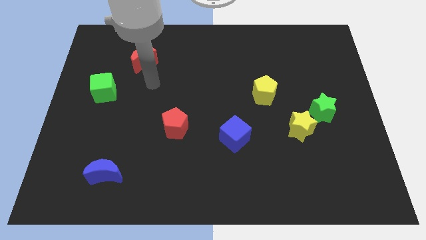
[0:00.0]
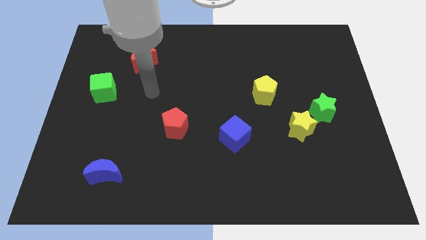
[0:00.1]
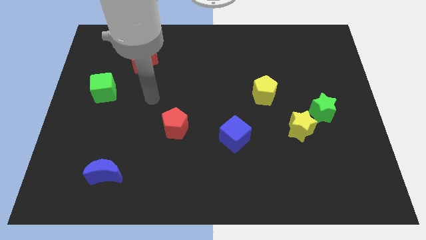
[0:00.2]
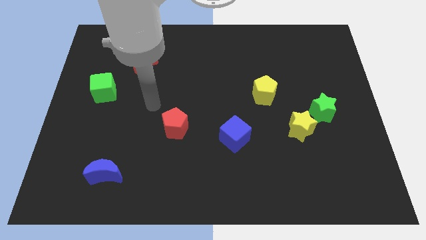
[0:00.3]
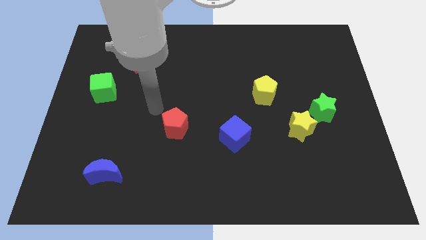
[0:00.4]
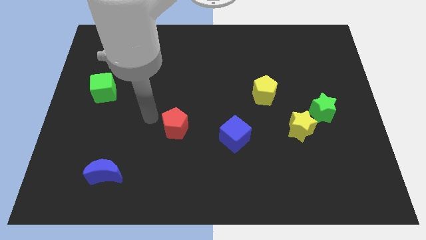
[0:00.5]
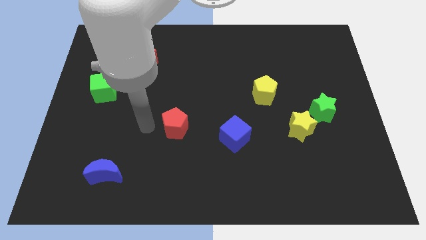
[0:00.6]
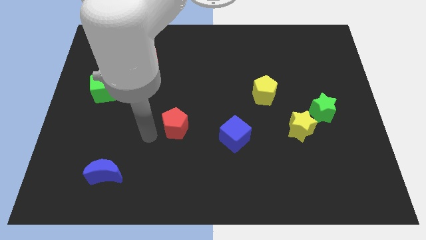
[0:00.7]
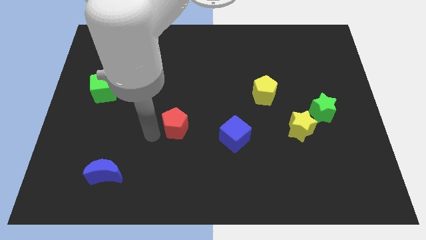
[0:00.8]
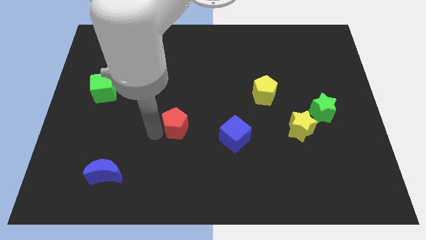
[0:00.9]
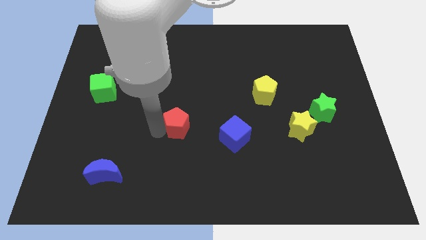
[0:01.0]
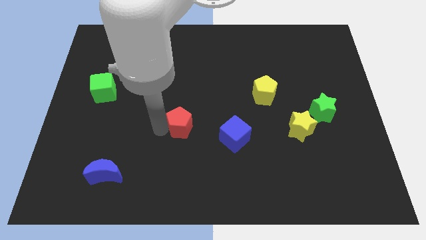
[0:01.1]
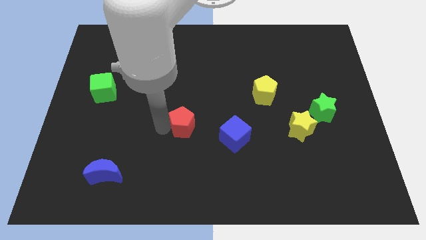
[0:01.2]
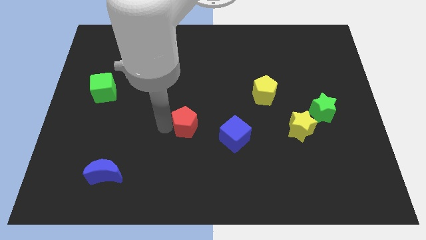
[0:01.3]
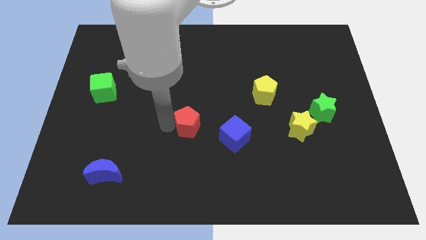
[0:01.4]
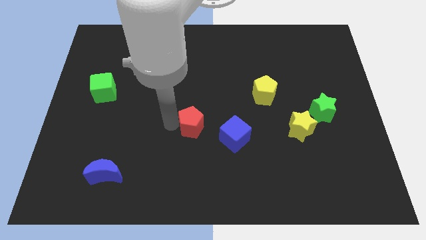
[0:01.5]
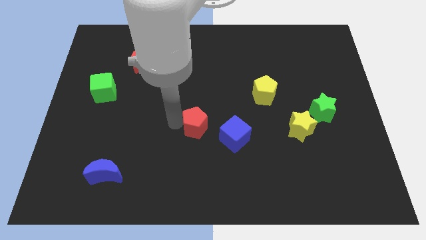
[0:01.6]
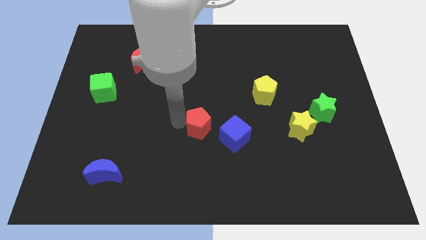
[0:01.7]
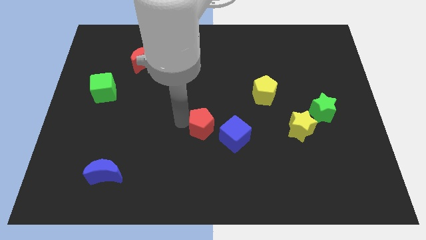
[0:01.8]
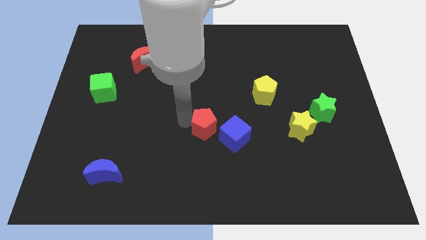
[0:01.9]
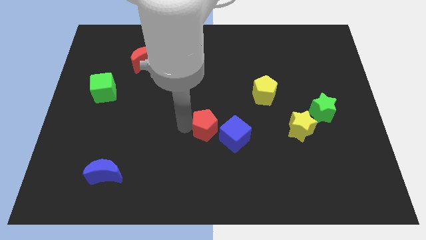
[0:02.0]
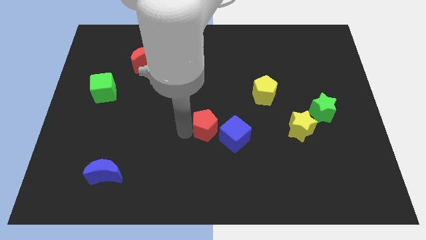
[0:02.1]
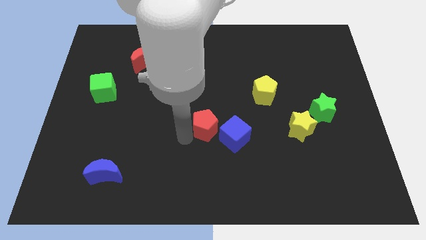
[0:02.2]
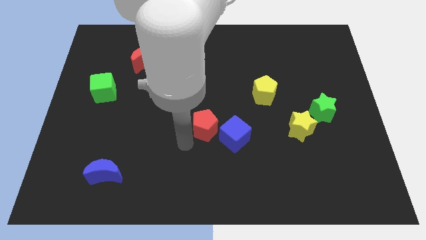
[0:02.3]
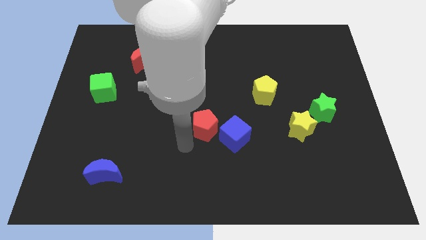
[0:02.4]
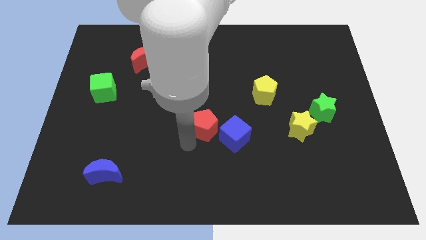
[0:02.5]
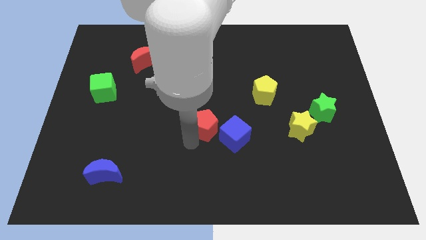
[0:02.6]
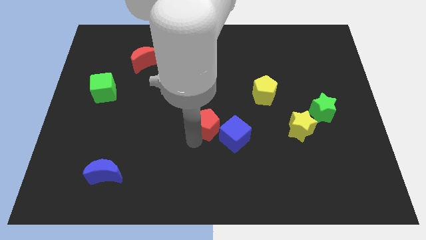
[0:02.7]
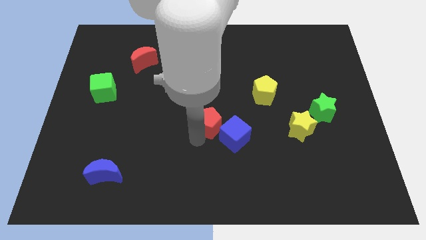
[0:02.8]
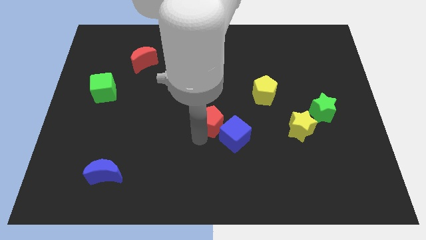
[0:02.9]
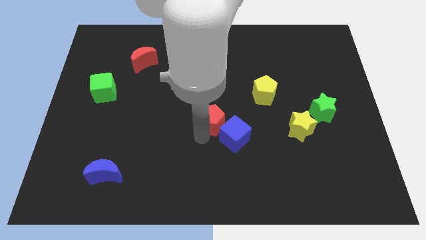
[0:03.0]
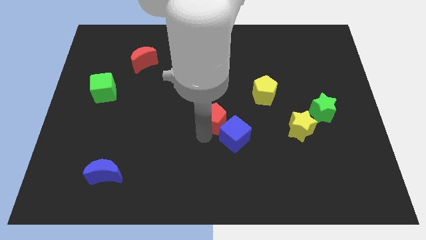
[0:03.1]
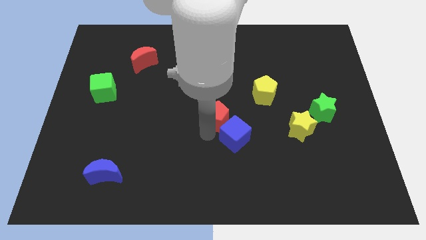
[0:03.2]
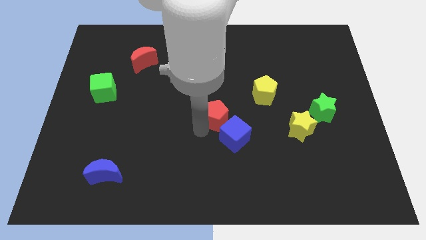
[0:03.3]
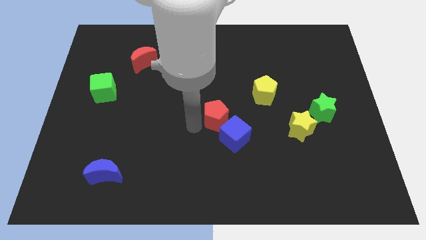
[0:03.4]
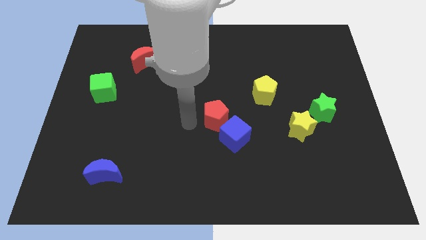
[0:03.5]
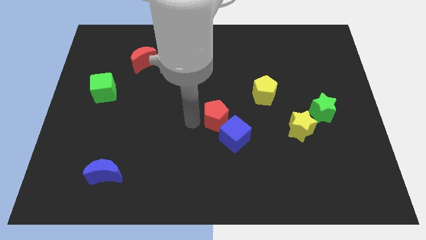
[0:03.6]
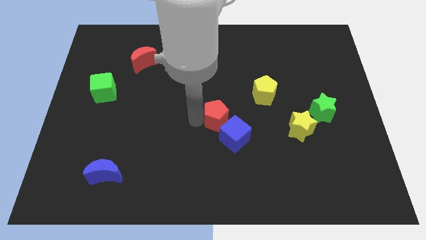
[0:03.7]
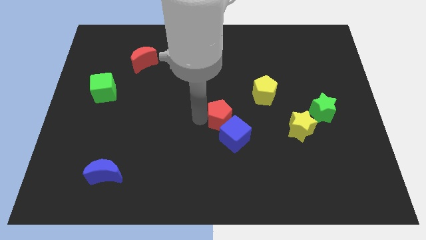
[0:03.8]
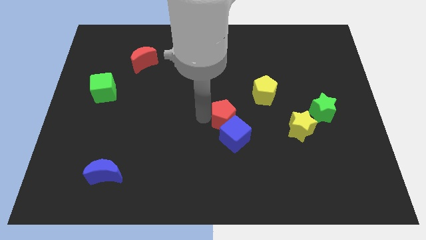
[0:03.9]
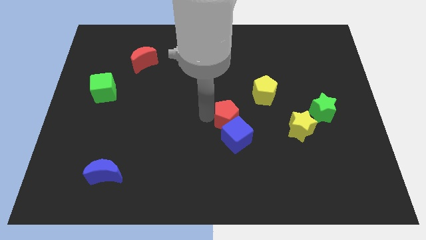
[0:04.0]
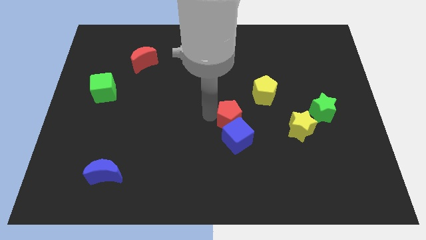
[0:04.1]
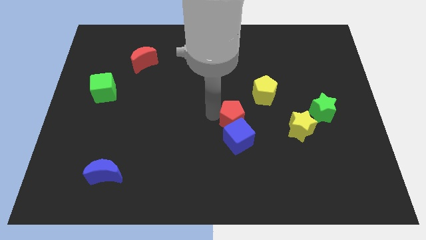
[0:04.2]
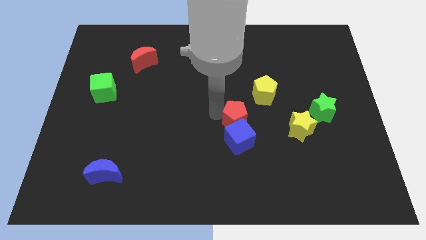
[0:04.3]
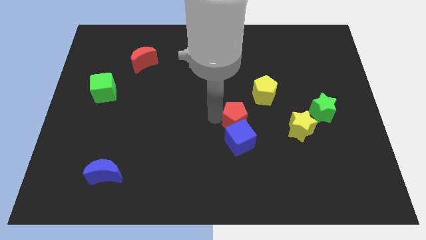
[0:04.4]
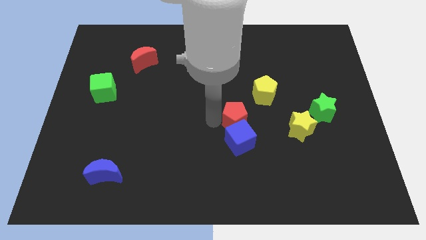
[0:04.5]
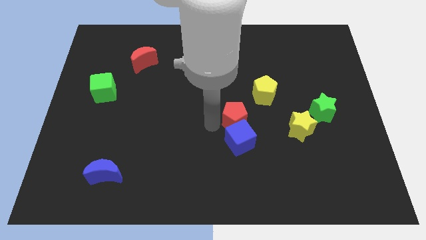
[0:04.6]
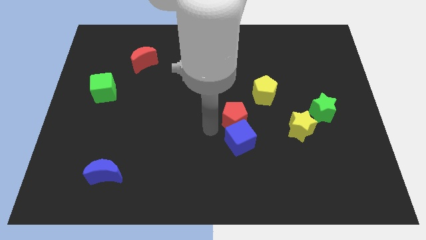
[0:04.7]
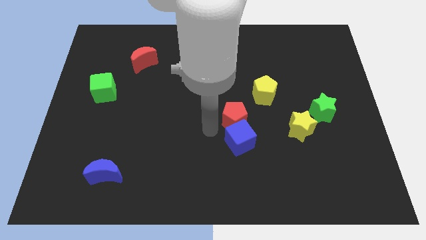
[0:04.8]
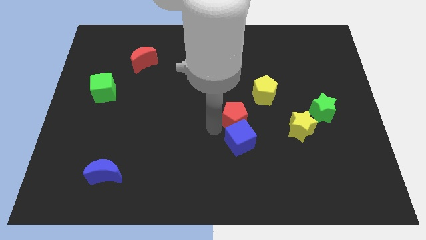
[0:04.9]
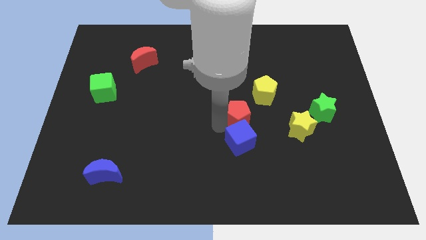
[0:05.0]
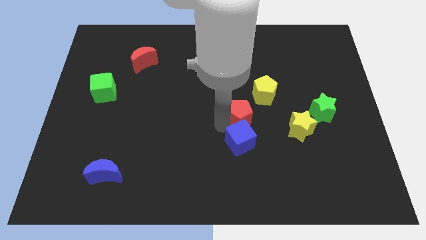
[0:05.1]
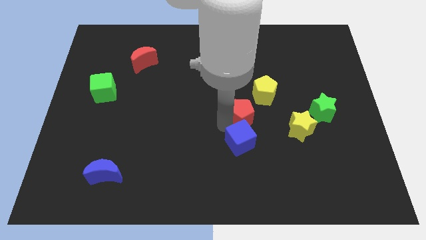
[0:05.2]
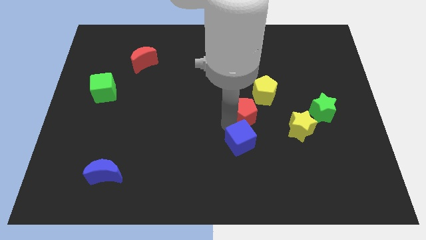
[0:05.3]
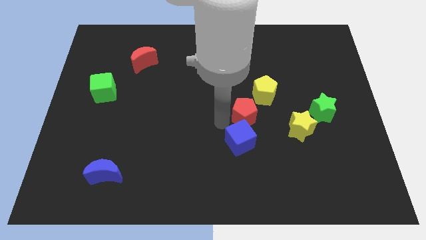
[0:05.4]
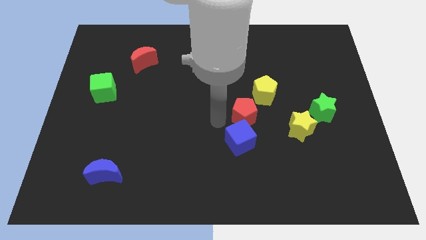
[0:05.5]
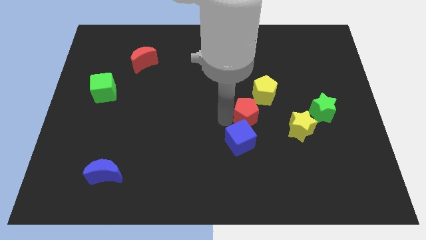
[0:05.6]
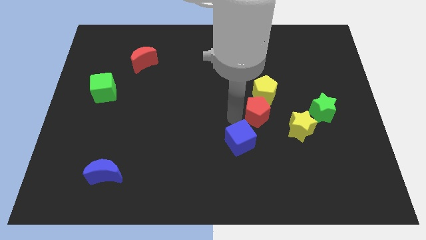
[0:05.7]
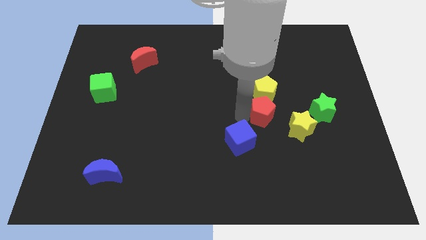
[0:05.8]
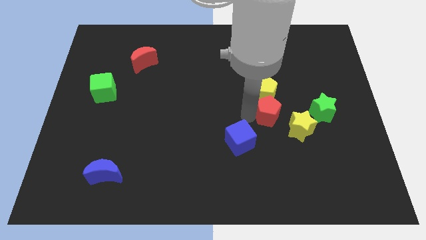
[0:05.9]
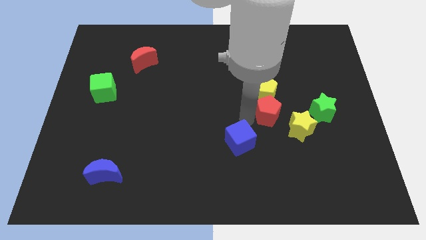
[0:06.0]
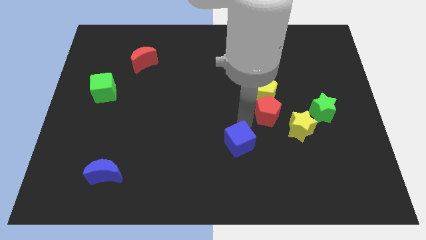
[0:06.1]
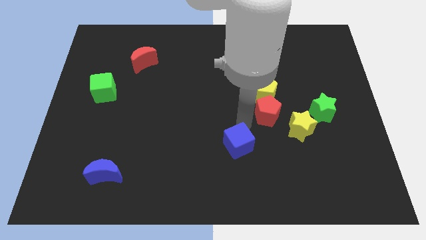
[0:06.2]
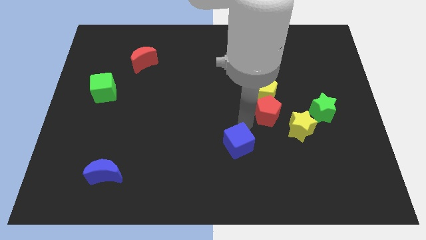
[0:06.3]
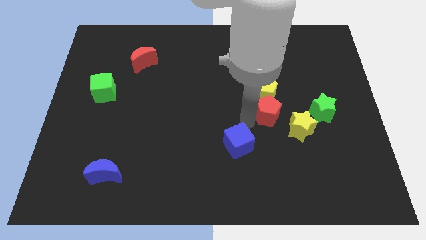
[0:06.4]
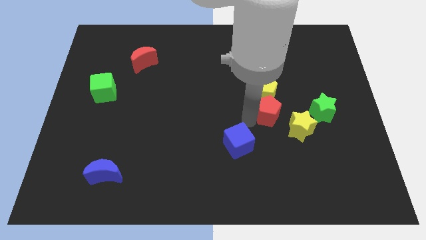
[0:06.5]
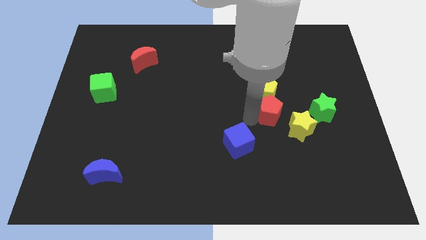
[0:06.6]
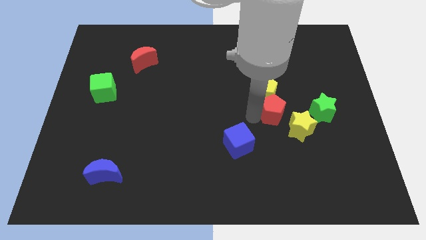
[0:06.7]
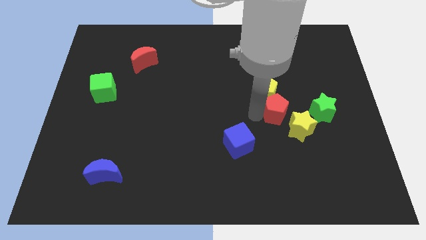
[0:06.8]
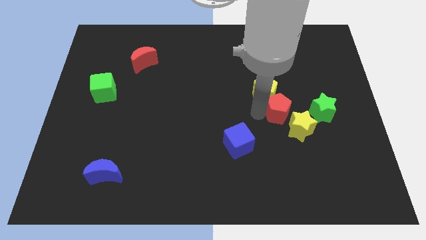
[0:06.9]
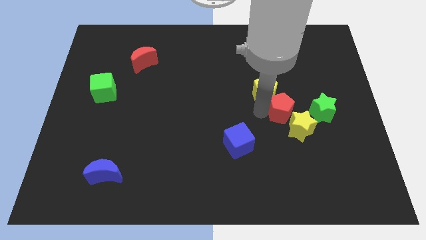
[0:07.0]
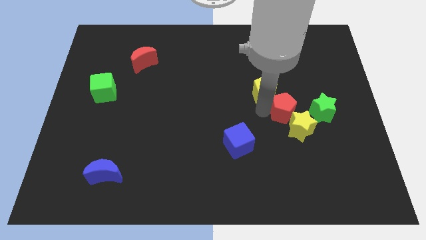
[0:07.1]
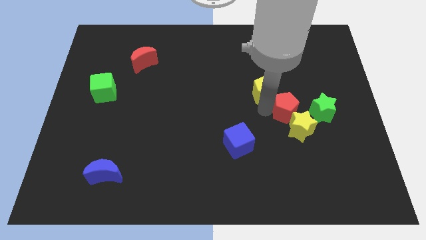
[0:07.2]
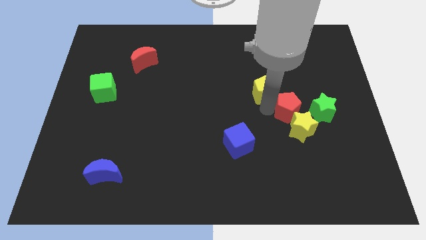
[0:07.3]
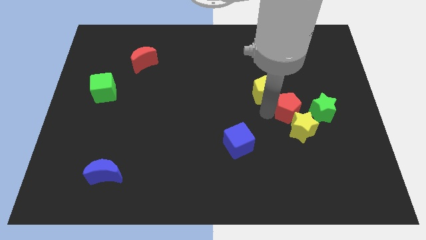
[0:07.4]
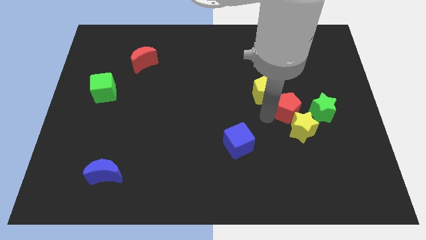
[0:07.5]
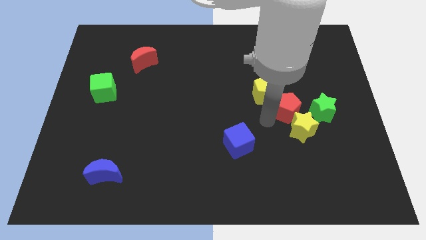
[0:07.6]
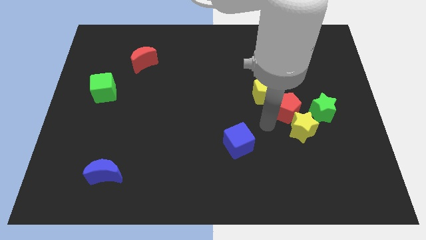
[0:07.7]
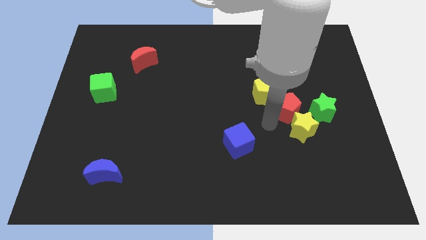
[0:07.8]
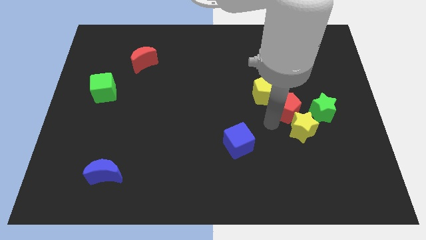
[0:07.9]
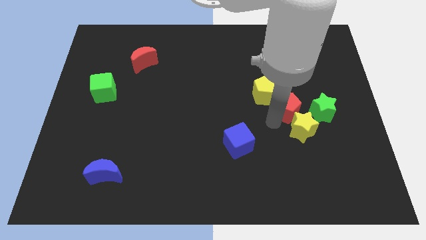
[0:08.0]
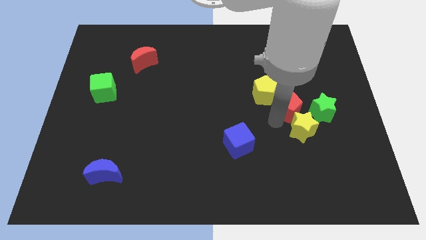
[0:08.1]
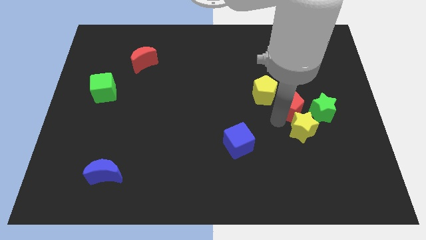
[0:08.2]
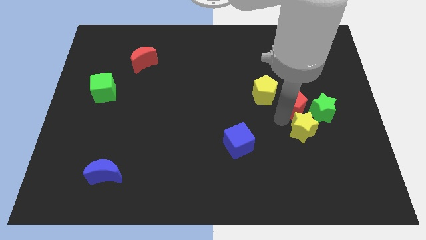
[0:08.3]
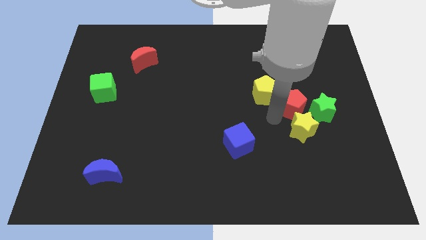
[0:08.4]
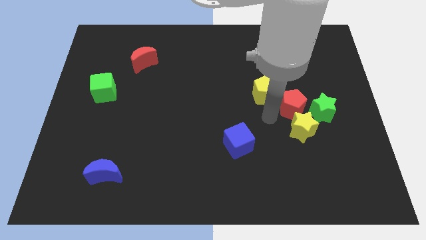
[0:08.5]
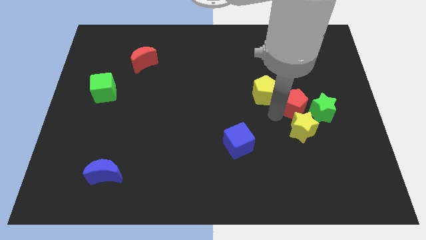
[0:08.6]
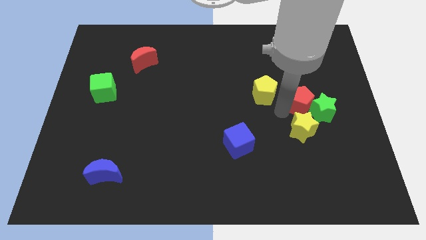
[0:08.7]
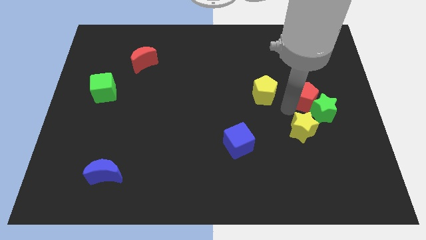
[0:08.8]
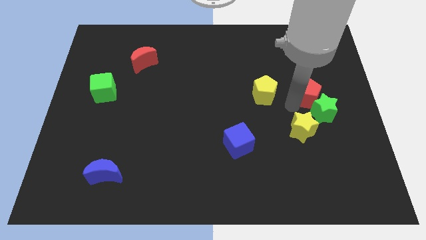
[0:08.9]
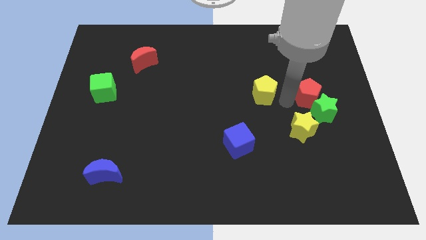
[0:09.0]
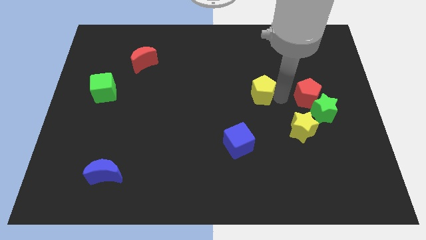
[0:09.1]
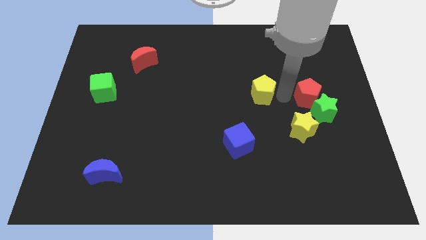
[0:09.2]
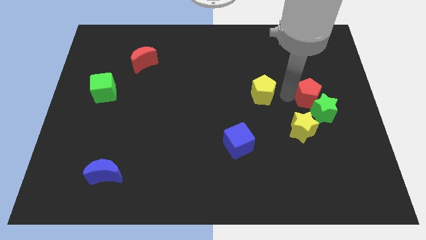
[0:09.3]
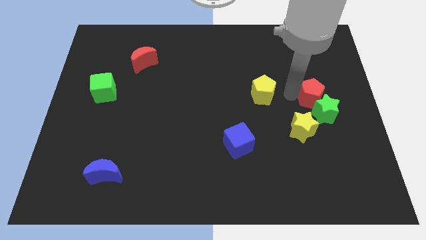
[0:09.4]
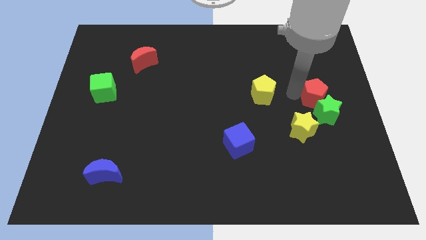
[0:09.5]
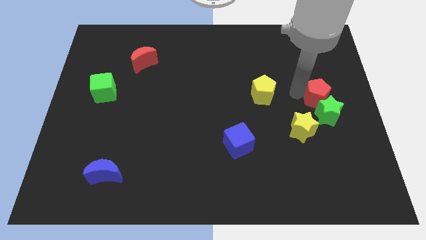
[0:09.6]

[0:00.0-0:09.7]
push the red pentagon to the center right
